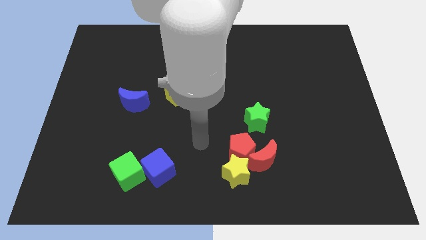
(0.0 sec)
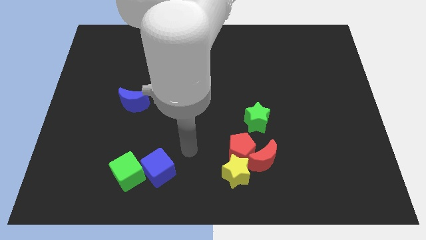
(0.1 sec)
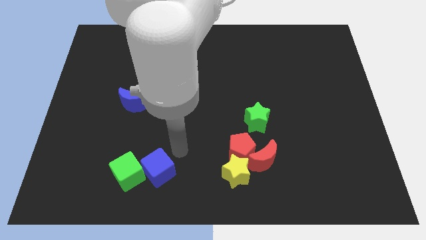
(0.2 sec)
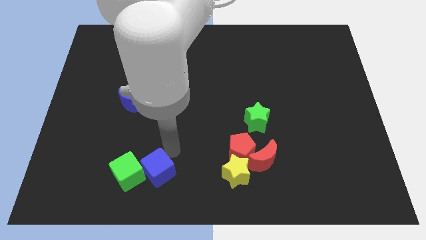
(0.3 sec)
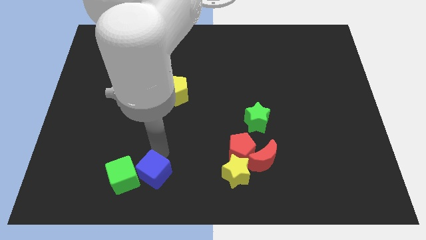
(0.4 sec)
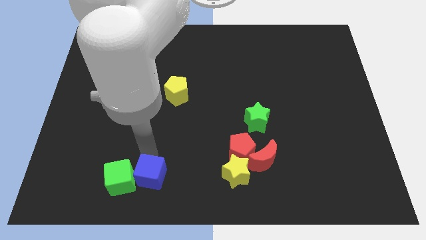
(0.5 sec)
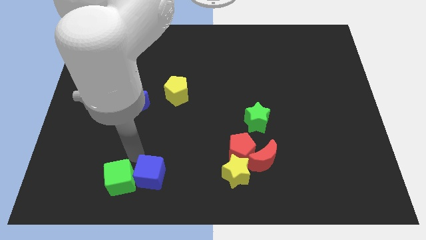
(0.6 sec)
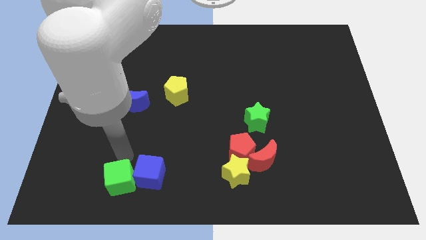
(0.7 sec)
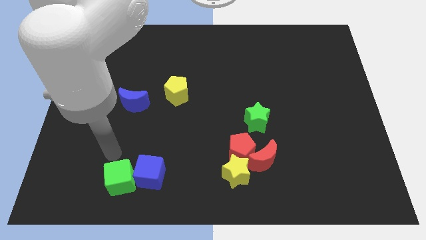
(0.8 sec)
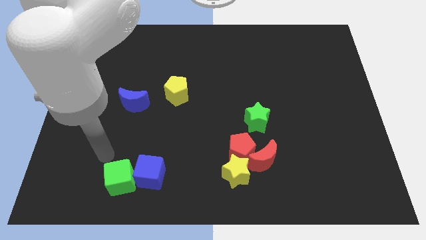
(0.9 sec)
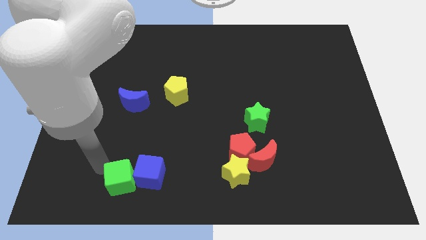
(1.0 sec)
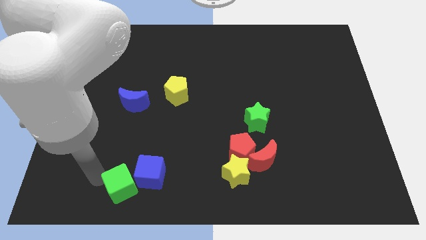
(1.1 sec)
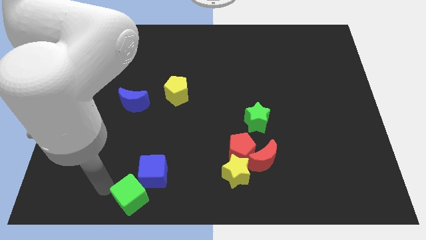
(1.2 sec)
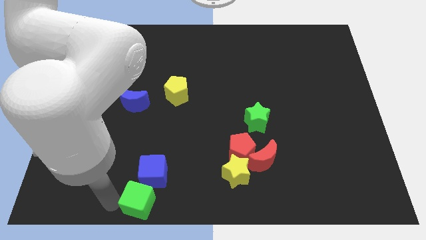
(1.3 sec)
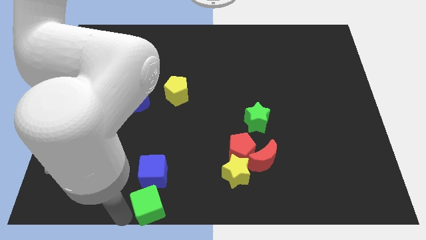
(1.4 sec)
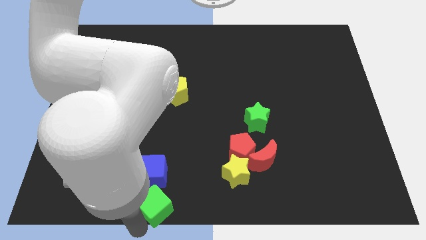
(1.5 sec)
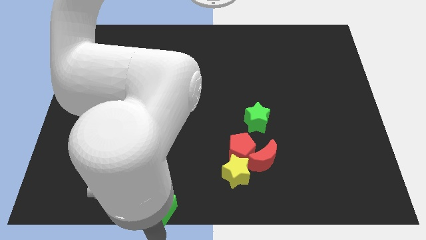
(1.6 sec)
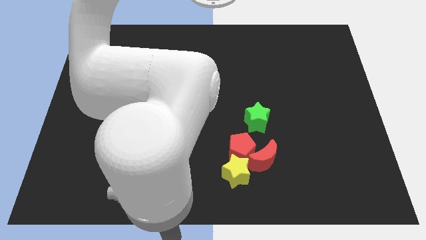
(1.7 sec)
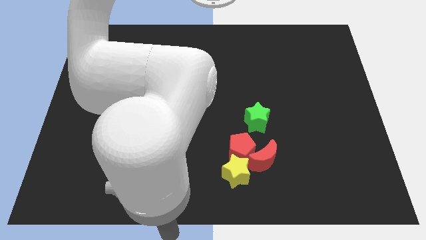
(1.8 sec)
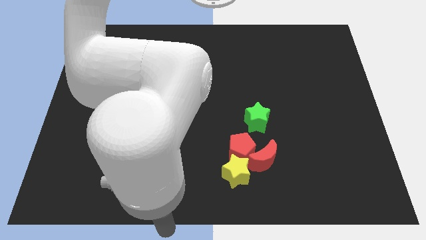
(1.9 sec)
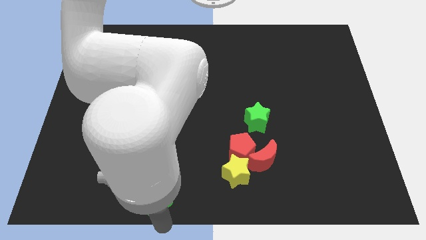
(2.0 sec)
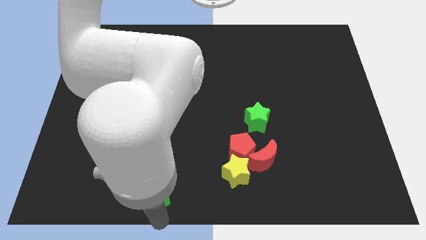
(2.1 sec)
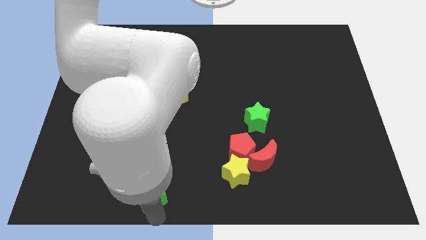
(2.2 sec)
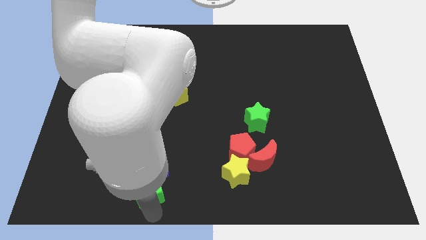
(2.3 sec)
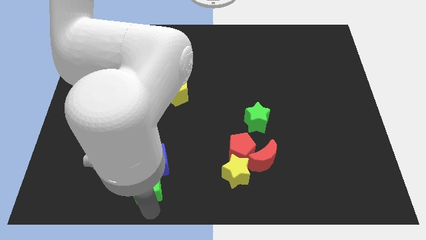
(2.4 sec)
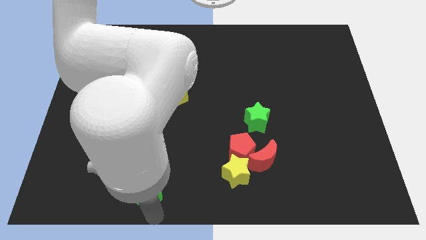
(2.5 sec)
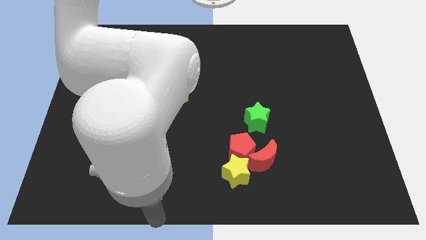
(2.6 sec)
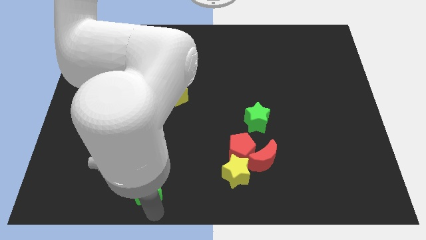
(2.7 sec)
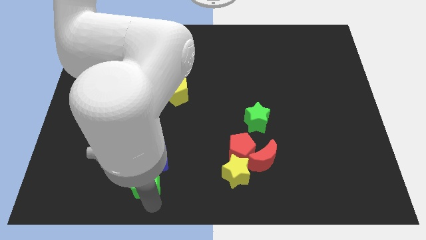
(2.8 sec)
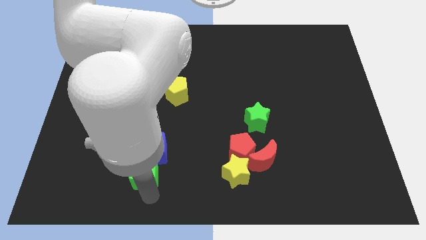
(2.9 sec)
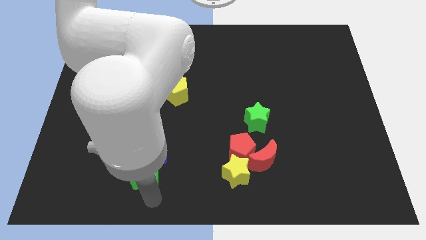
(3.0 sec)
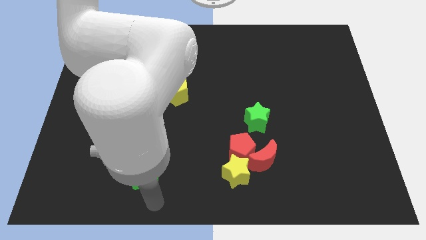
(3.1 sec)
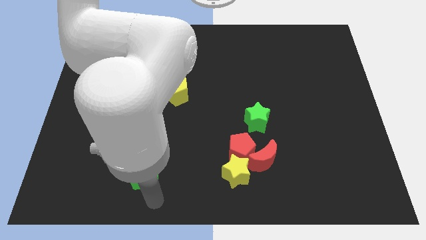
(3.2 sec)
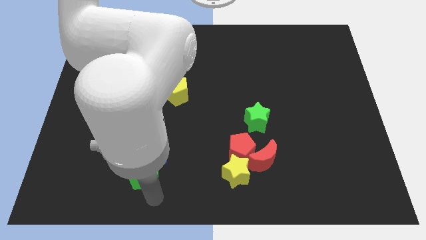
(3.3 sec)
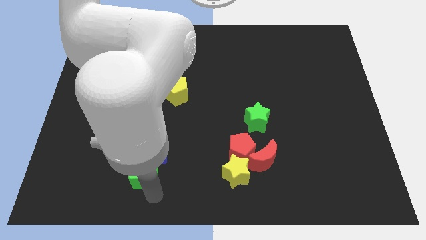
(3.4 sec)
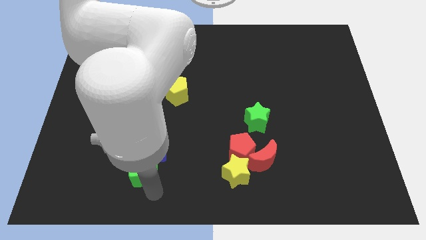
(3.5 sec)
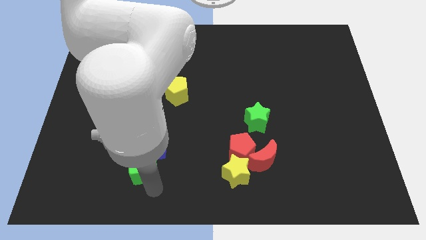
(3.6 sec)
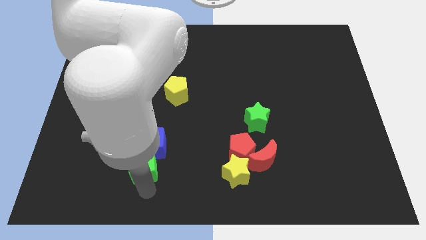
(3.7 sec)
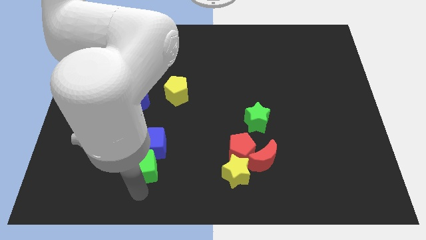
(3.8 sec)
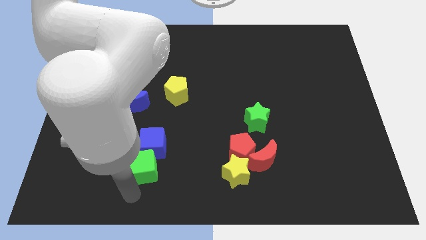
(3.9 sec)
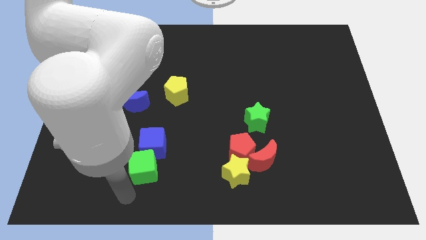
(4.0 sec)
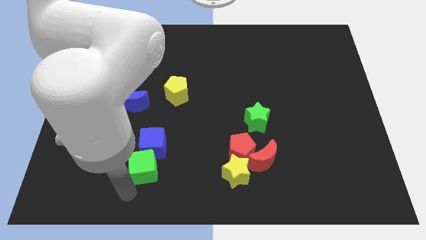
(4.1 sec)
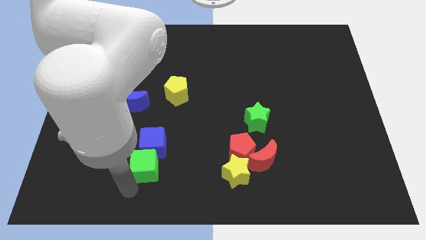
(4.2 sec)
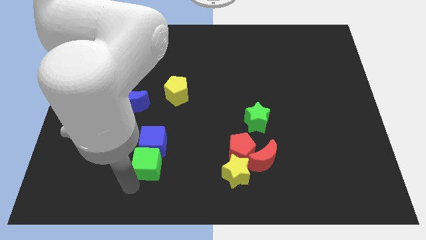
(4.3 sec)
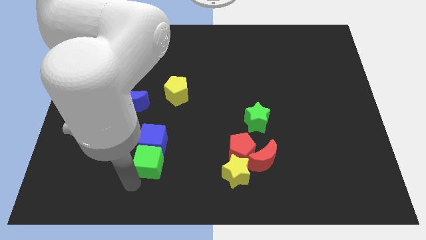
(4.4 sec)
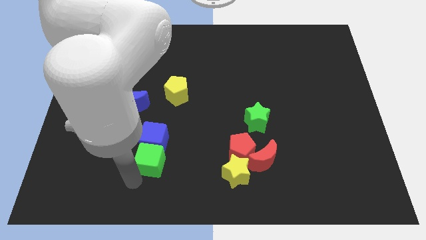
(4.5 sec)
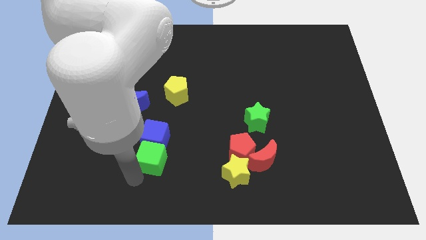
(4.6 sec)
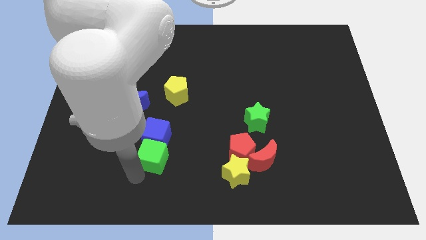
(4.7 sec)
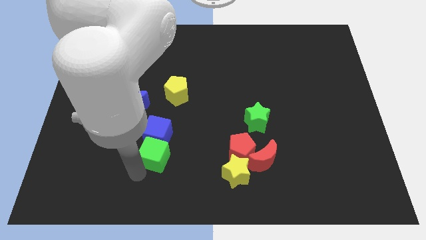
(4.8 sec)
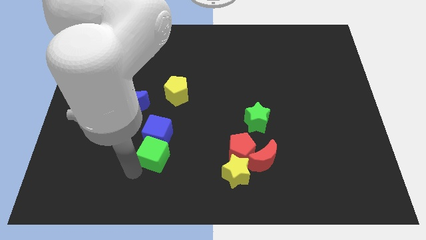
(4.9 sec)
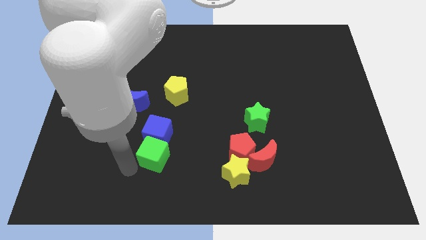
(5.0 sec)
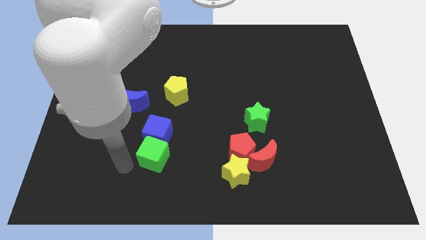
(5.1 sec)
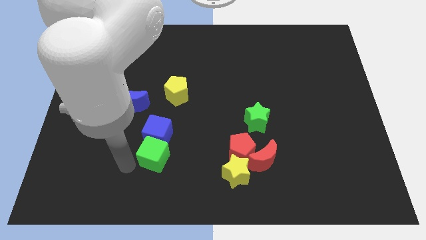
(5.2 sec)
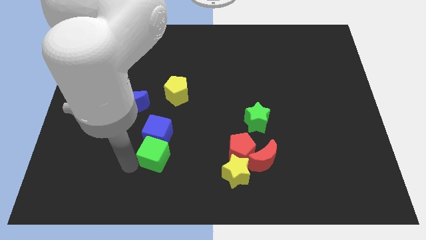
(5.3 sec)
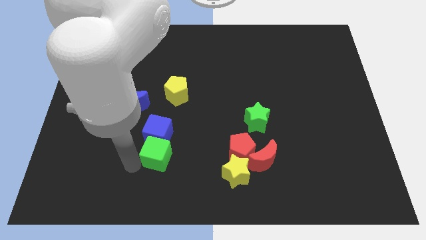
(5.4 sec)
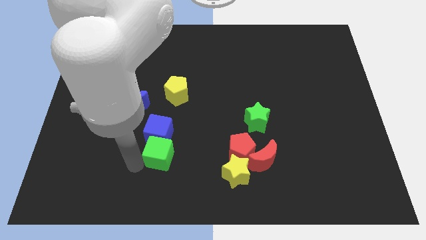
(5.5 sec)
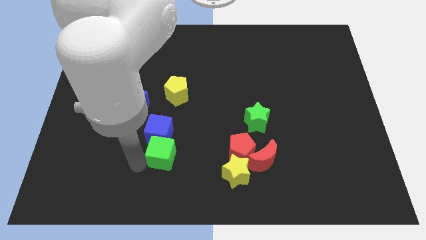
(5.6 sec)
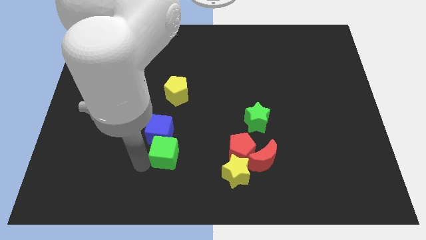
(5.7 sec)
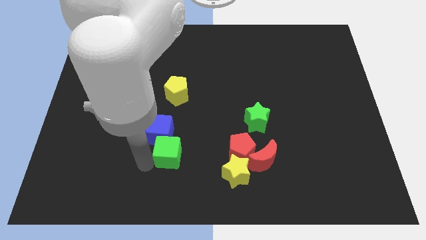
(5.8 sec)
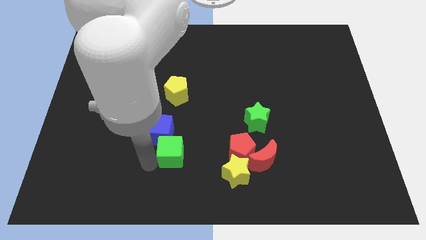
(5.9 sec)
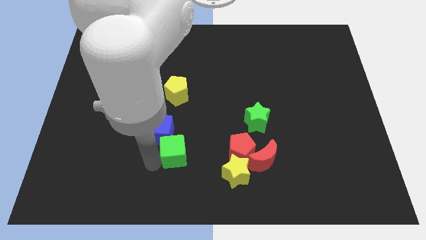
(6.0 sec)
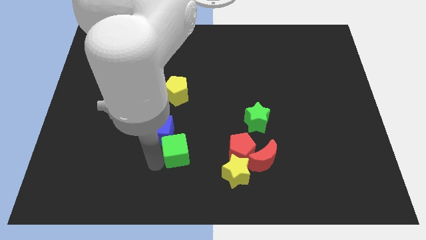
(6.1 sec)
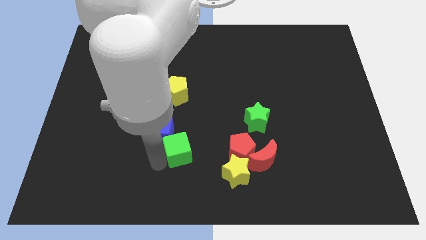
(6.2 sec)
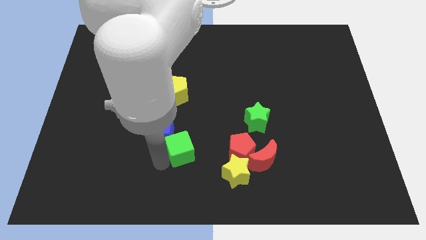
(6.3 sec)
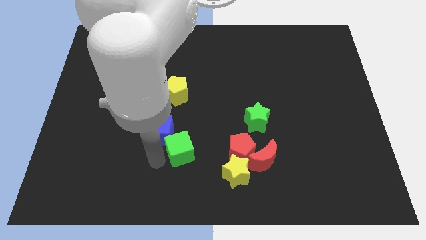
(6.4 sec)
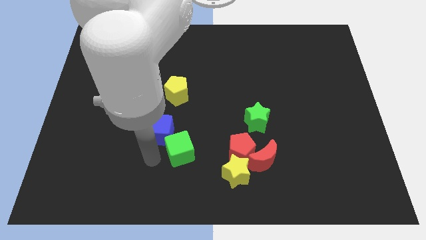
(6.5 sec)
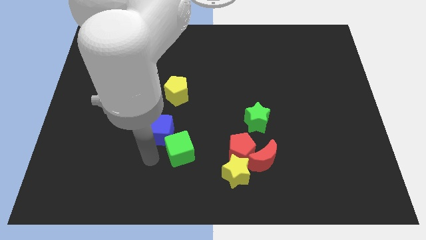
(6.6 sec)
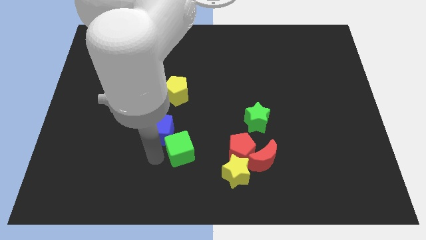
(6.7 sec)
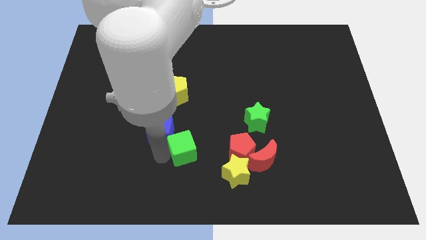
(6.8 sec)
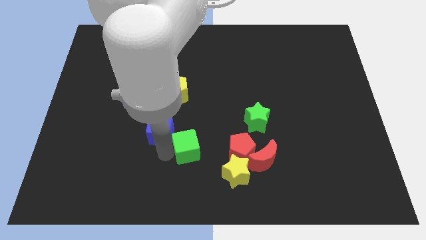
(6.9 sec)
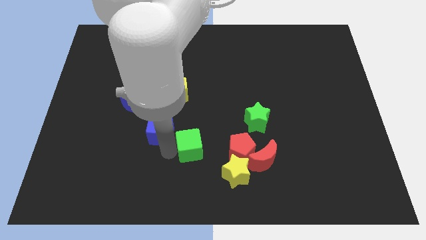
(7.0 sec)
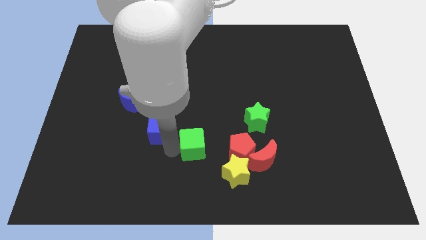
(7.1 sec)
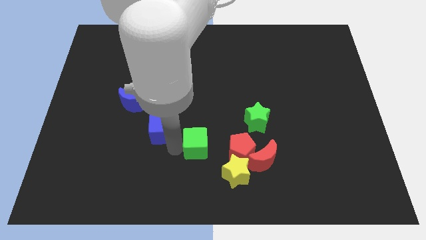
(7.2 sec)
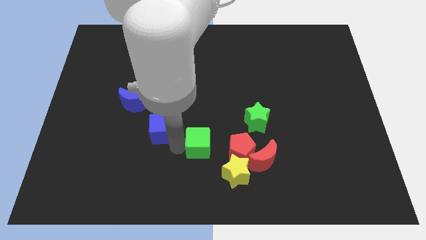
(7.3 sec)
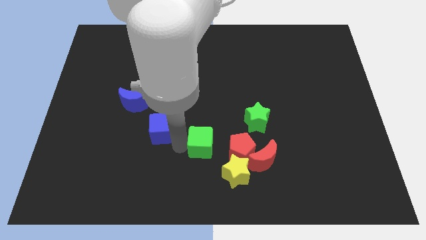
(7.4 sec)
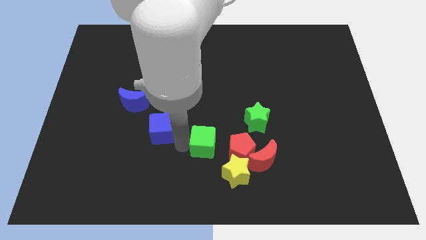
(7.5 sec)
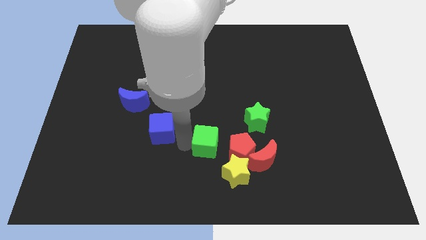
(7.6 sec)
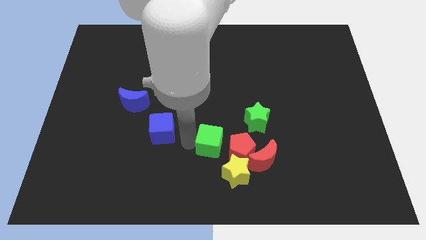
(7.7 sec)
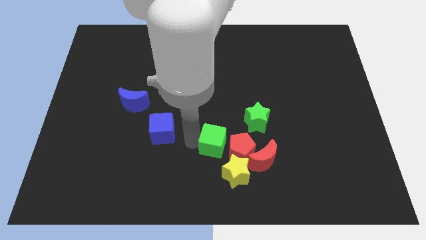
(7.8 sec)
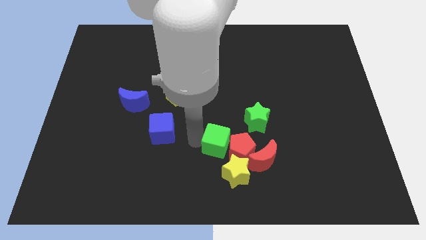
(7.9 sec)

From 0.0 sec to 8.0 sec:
put the green cube towards the red pentagon
